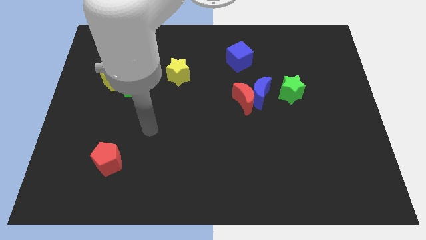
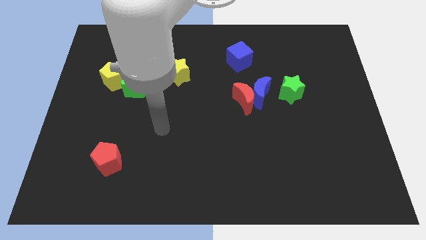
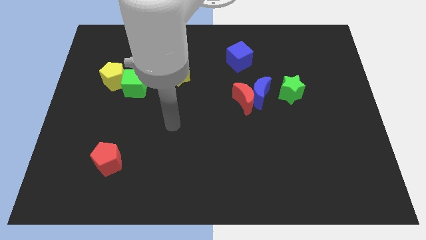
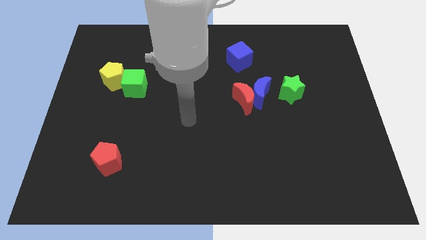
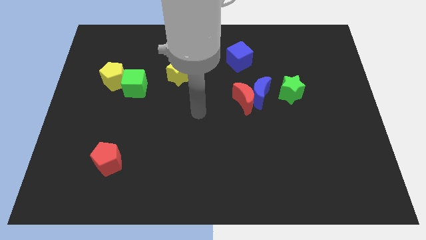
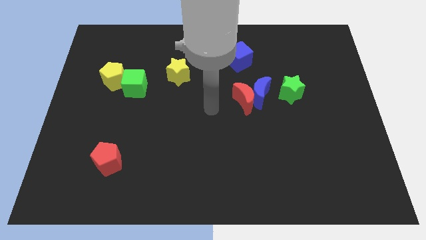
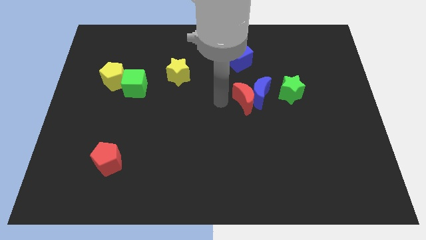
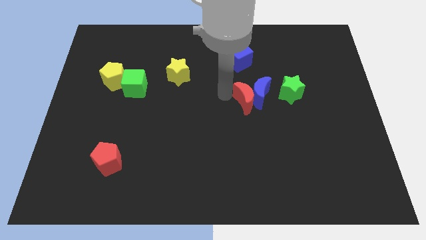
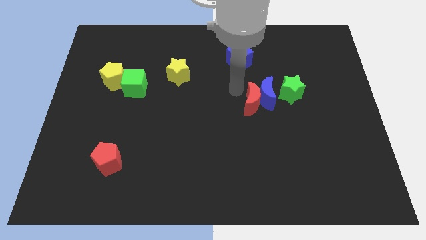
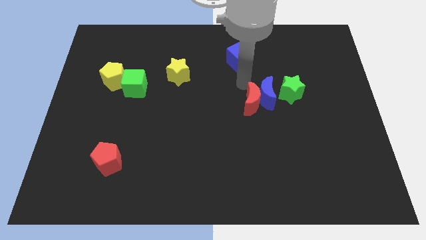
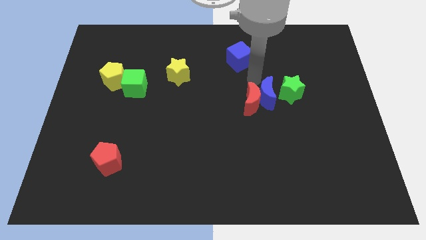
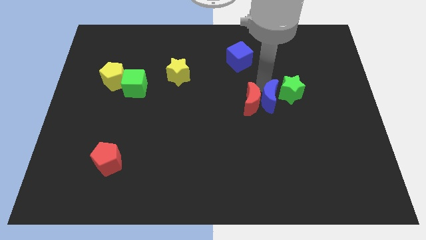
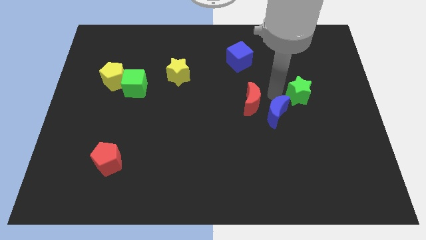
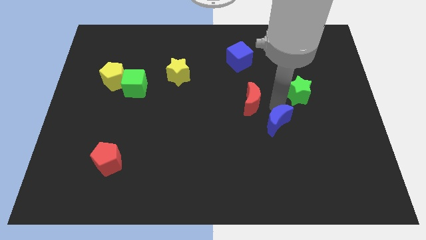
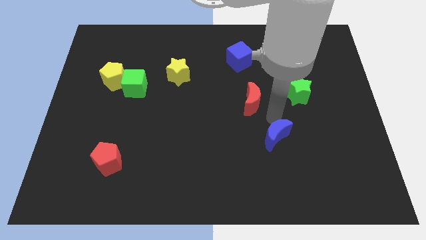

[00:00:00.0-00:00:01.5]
move the red moon away from the blue moon

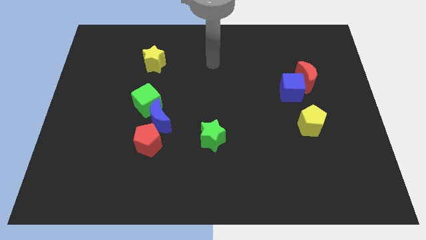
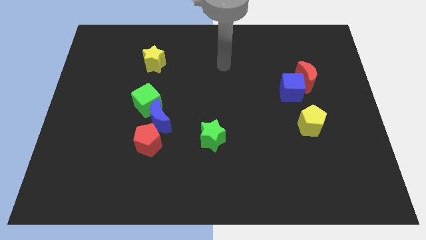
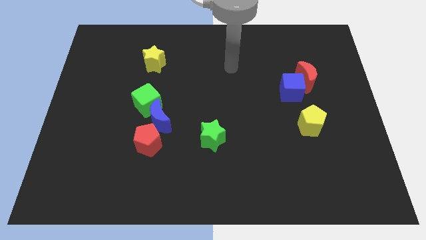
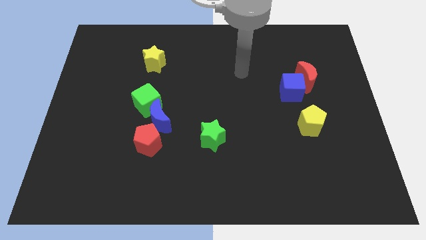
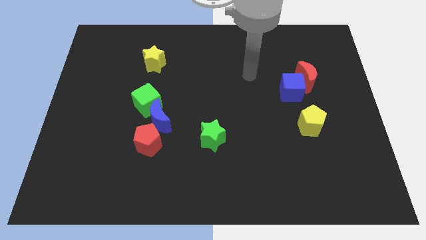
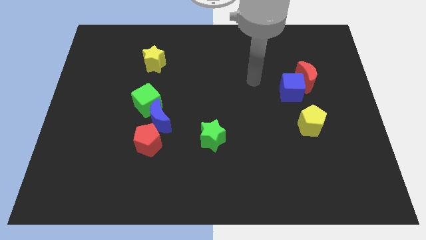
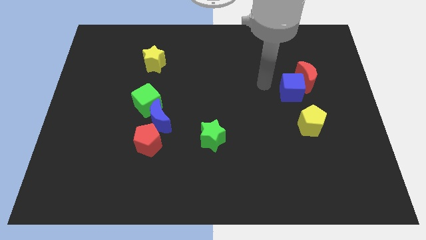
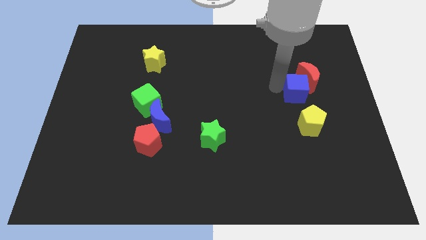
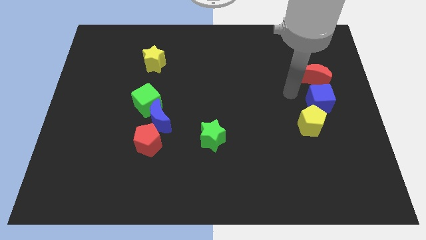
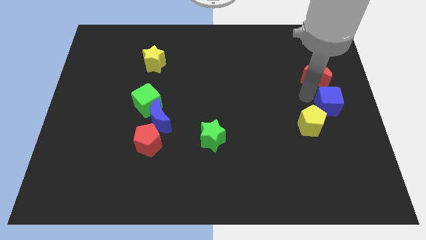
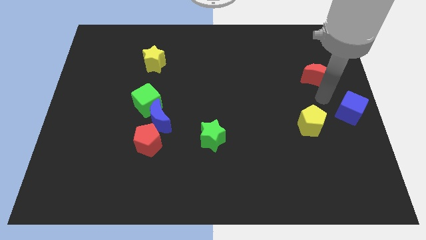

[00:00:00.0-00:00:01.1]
separate the red moon from the blue cube

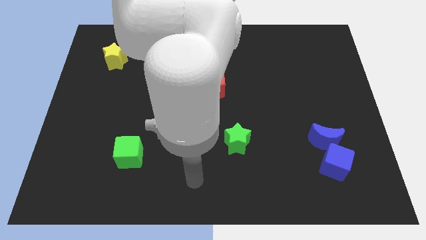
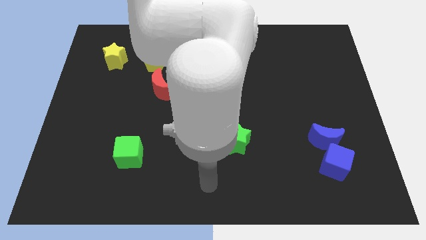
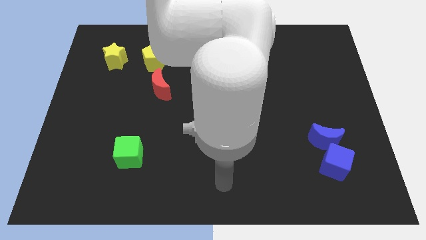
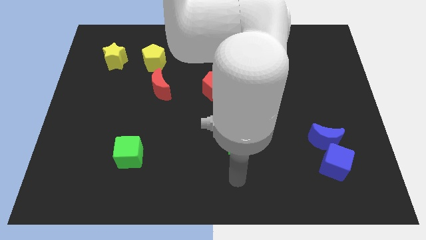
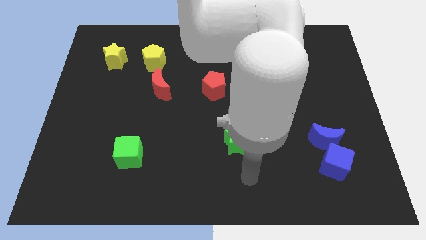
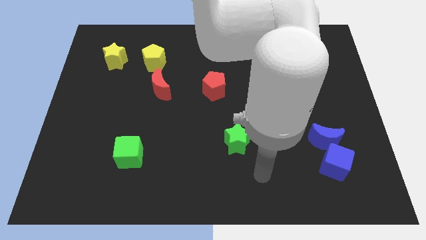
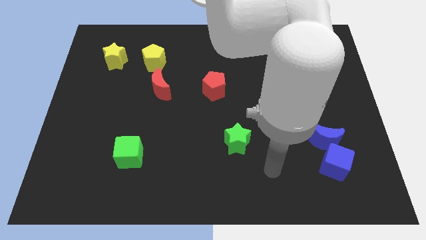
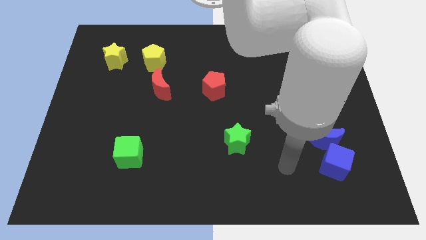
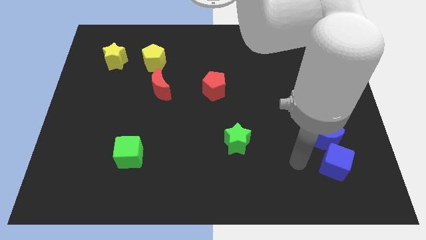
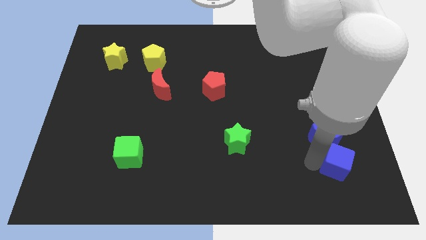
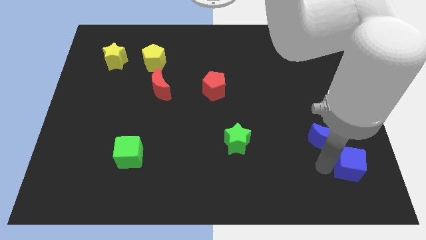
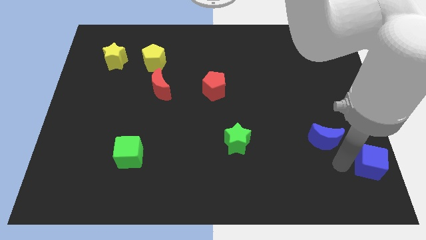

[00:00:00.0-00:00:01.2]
separate the blue moon from the blue cube

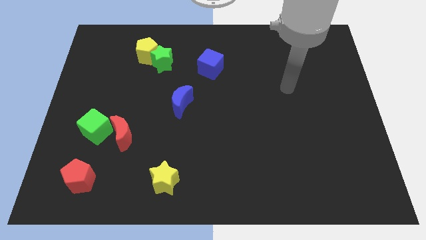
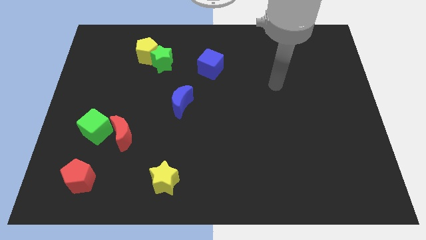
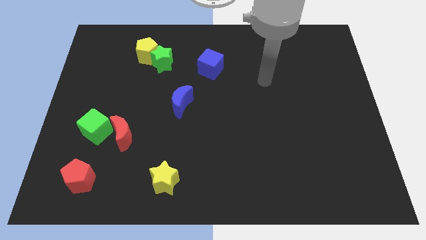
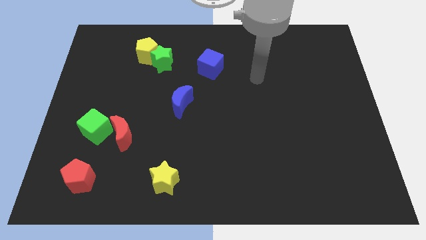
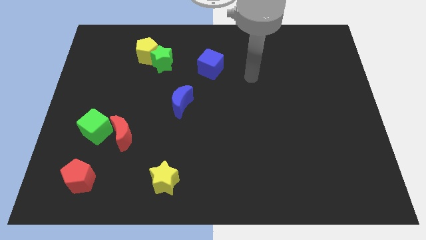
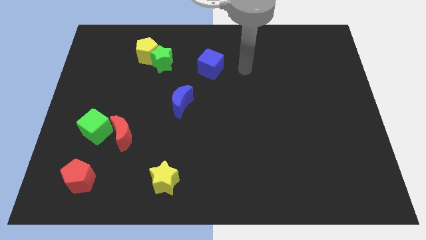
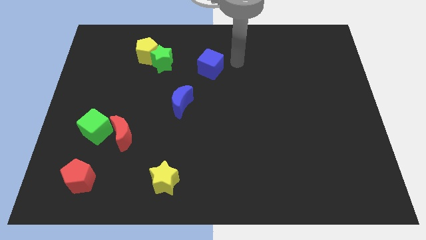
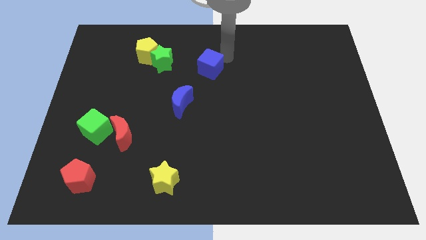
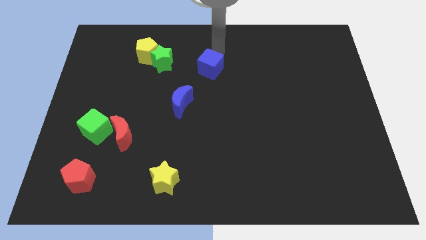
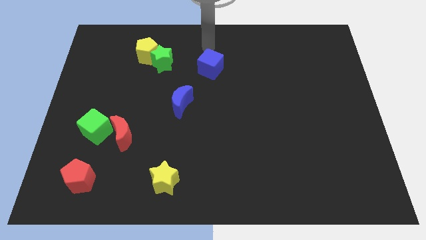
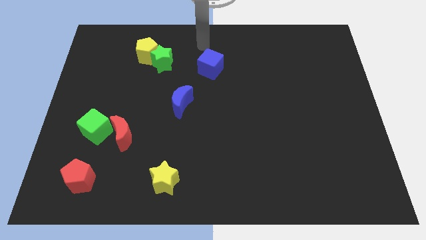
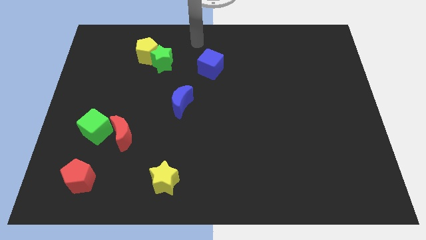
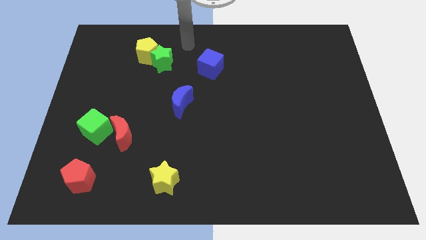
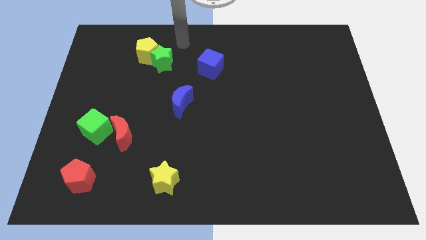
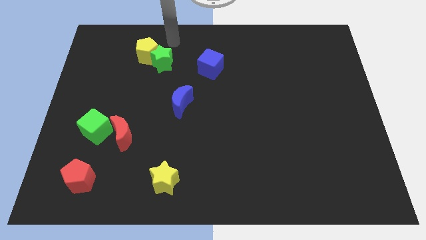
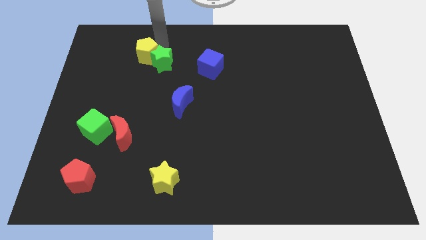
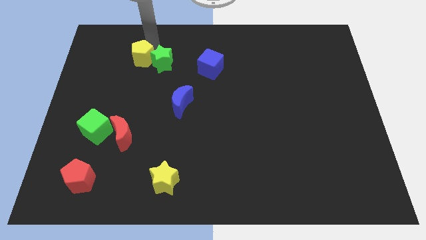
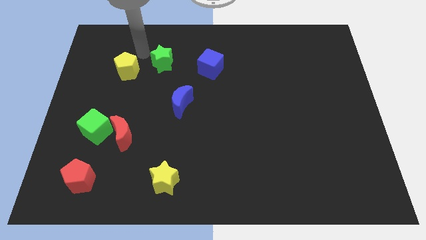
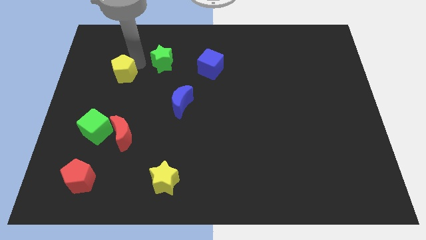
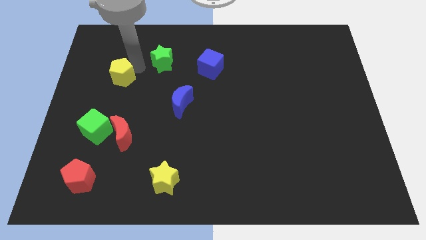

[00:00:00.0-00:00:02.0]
move the green star away from the yellow pentagon

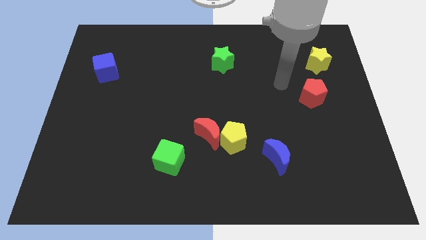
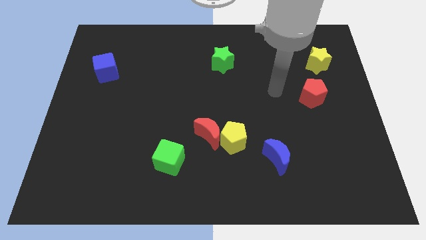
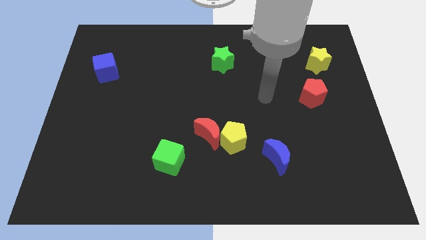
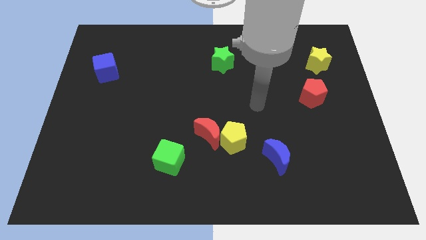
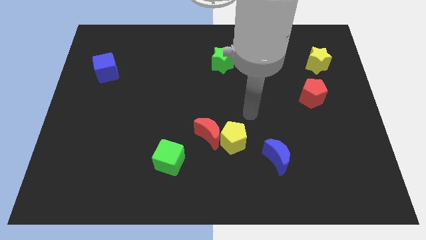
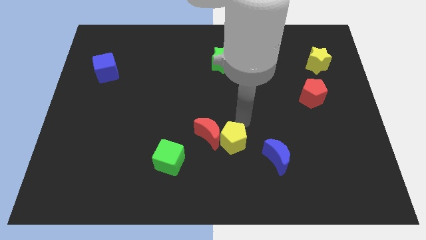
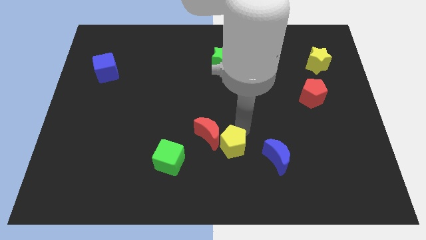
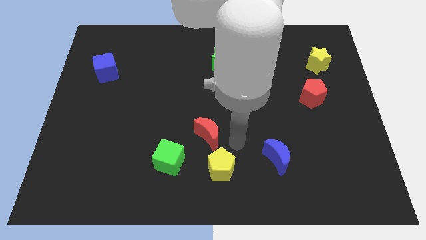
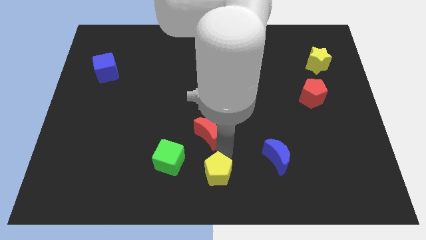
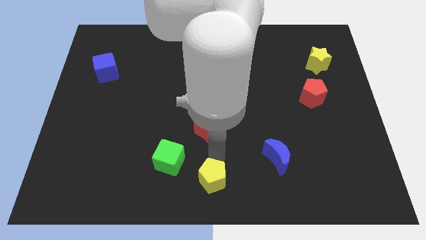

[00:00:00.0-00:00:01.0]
pull the red moon apart from the yellow pentagon

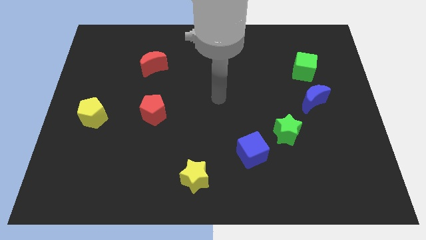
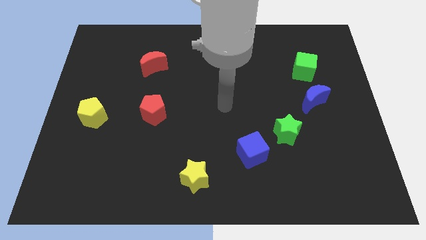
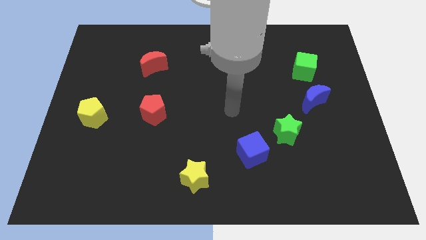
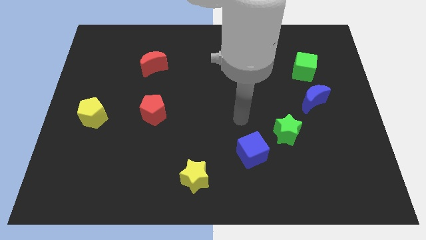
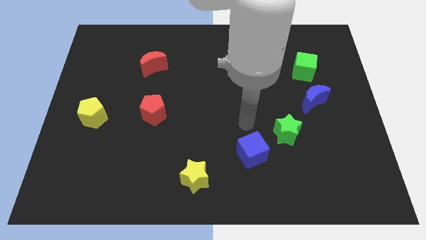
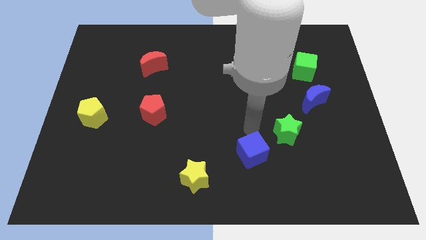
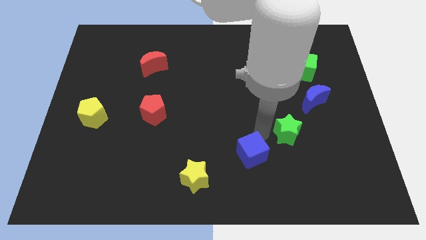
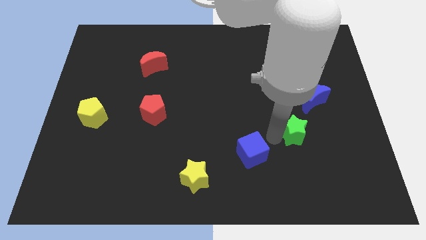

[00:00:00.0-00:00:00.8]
pull the blue cube apart from the green star

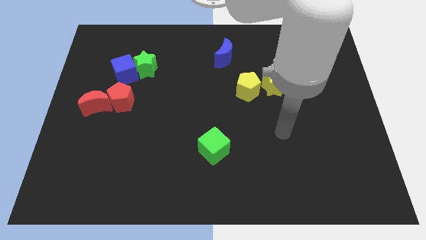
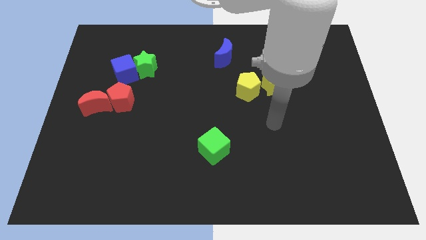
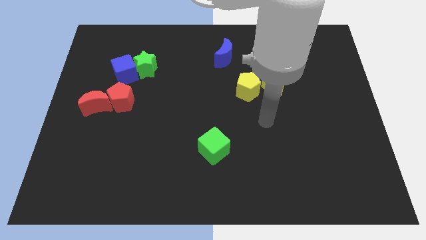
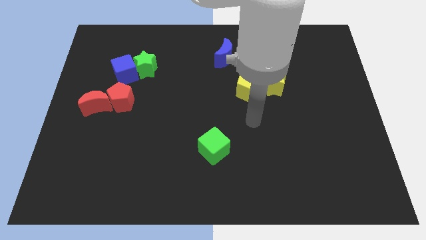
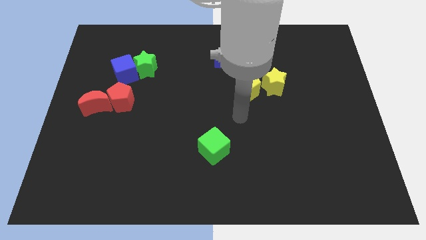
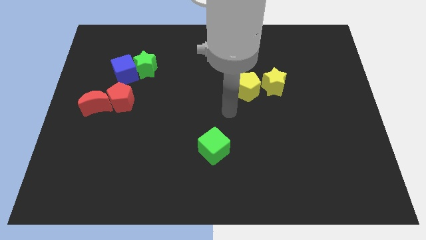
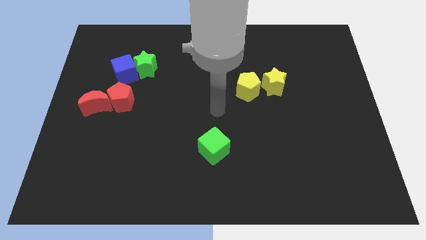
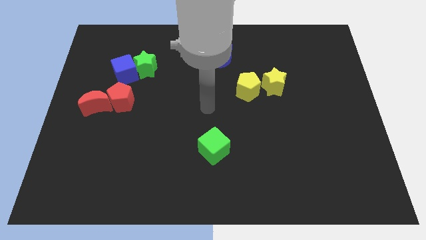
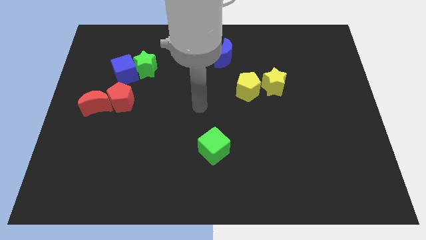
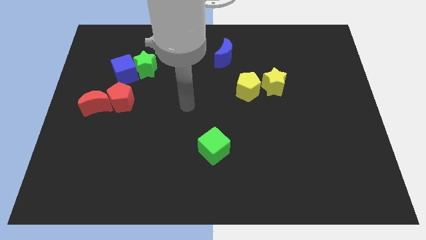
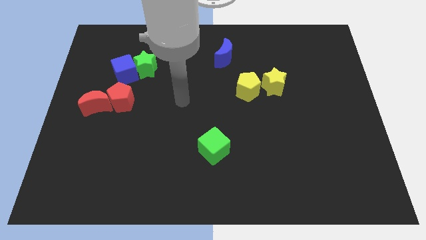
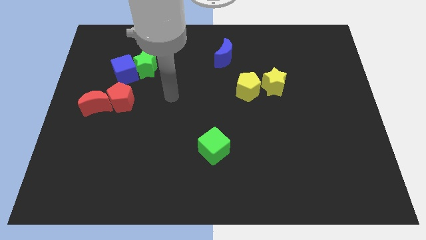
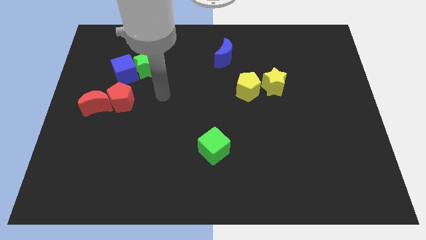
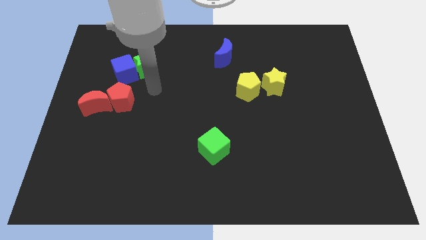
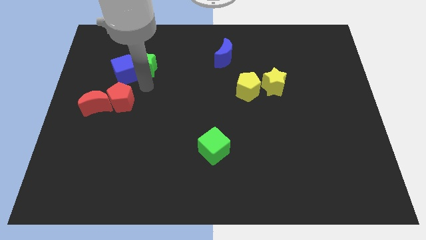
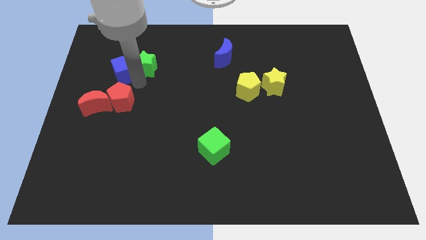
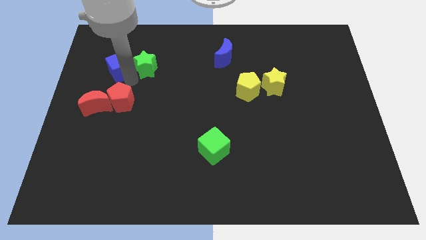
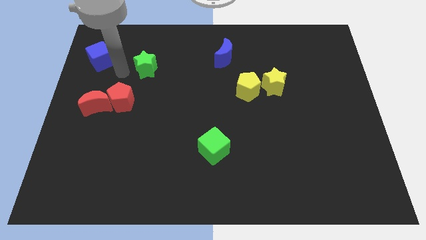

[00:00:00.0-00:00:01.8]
separate the green star from the blue cube

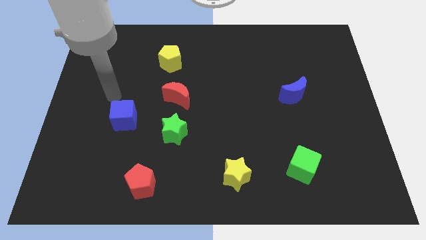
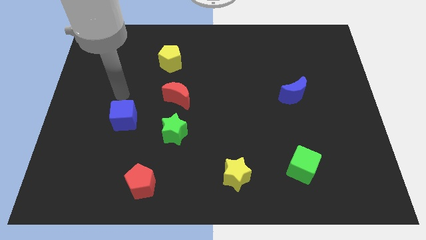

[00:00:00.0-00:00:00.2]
move the red moon away from the green star
